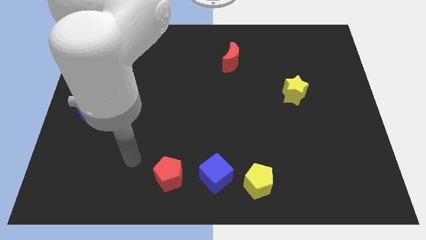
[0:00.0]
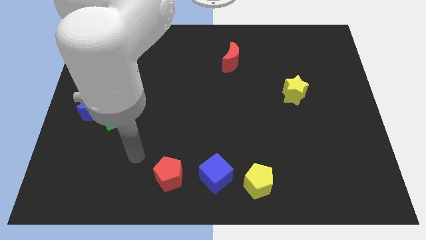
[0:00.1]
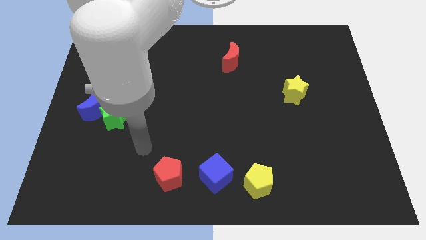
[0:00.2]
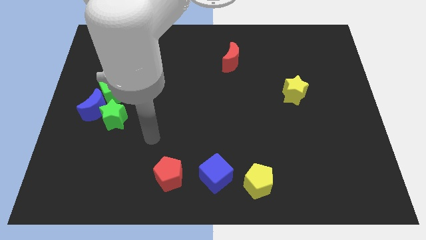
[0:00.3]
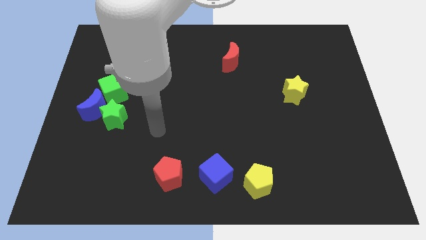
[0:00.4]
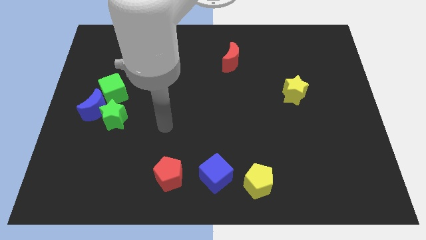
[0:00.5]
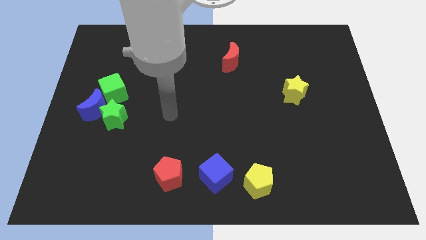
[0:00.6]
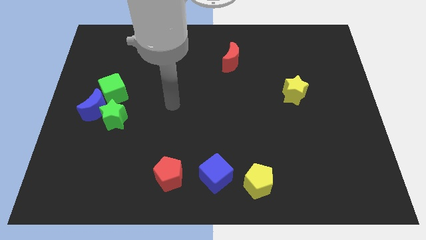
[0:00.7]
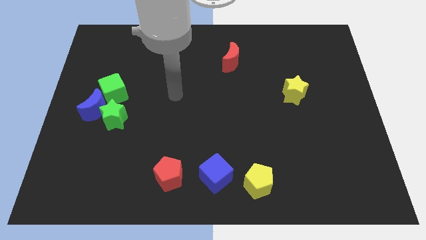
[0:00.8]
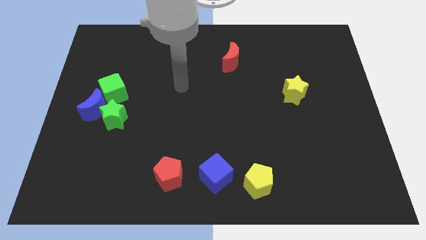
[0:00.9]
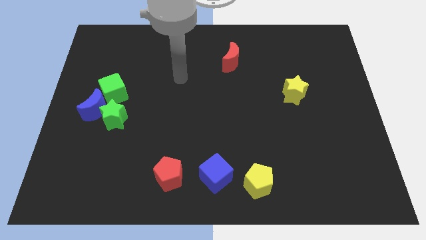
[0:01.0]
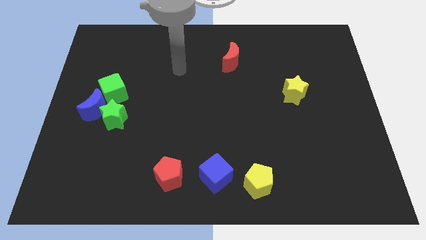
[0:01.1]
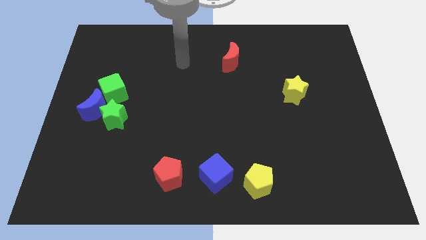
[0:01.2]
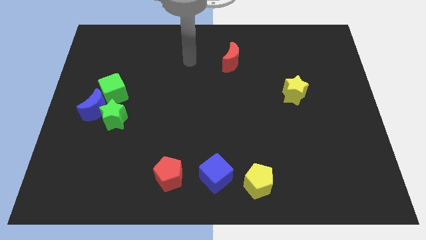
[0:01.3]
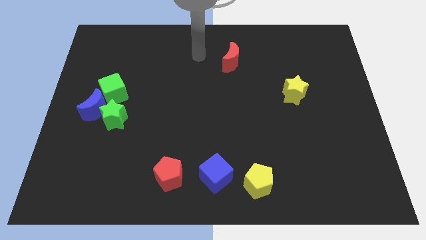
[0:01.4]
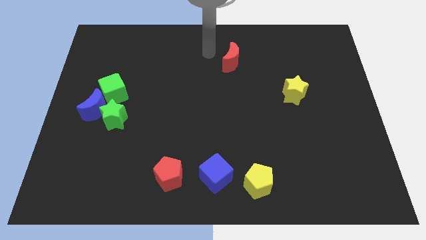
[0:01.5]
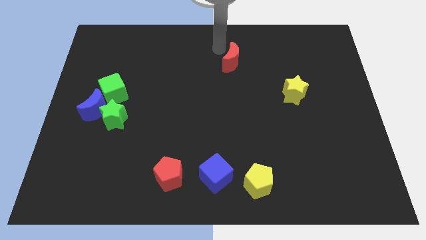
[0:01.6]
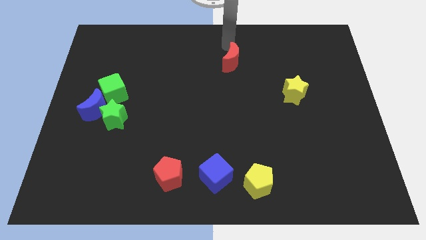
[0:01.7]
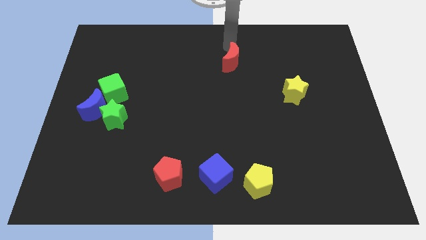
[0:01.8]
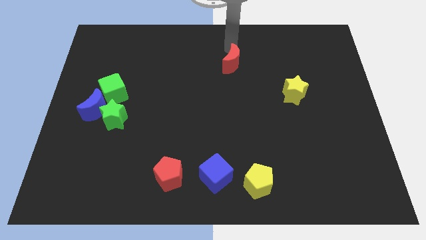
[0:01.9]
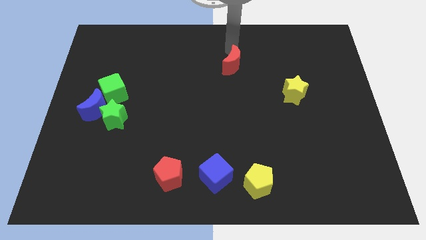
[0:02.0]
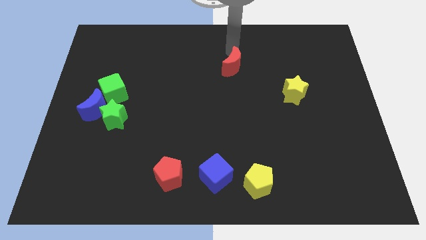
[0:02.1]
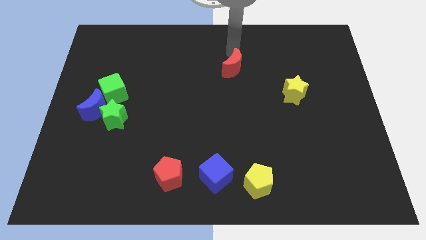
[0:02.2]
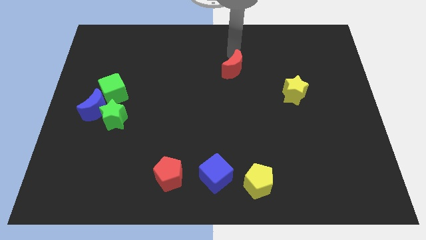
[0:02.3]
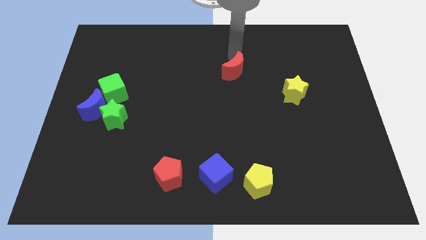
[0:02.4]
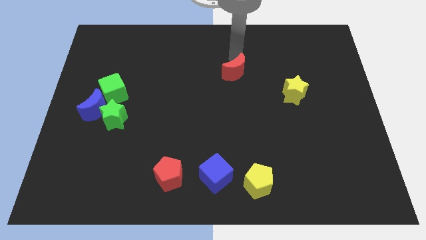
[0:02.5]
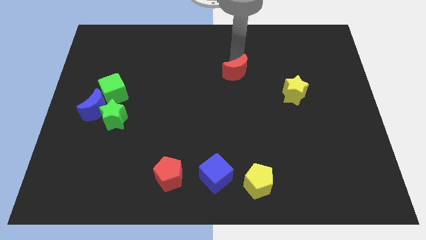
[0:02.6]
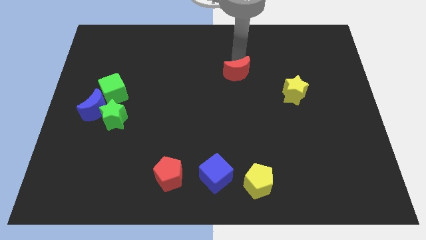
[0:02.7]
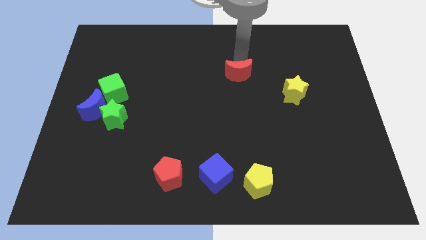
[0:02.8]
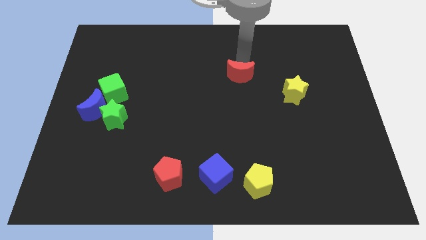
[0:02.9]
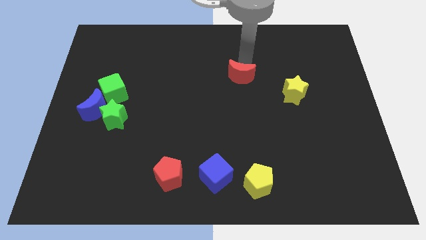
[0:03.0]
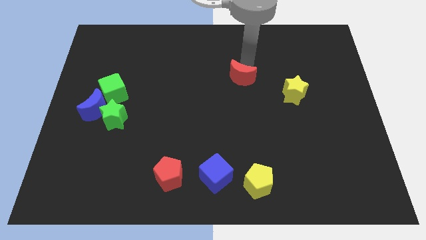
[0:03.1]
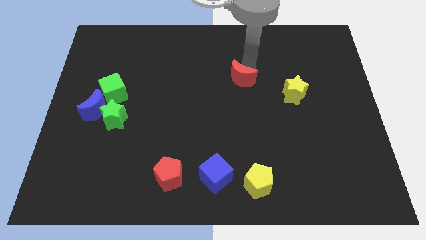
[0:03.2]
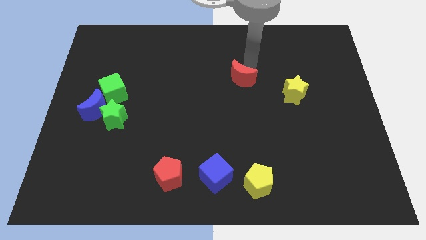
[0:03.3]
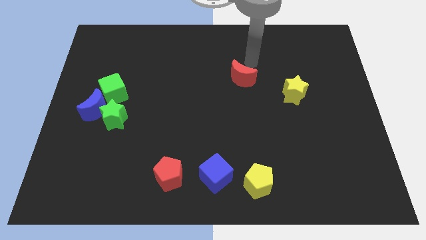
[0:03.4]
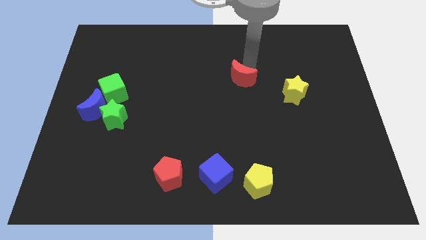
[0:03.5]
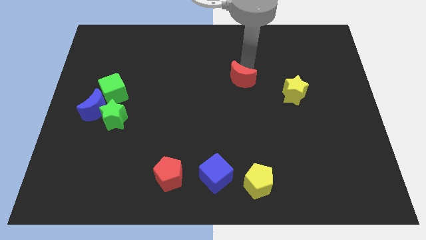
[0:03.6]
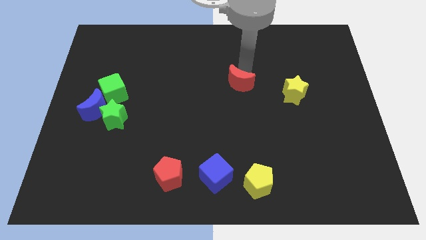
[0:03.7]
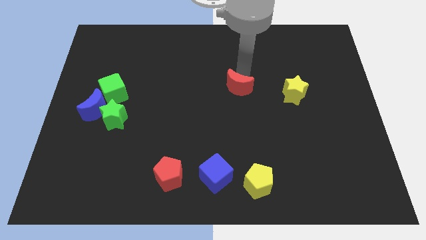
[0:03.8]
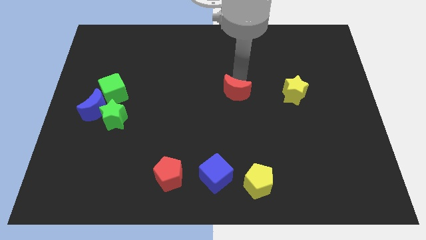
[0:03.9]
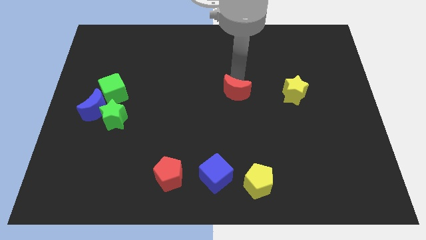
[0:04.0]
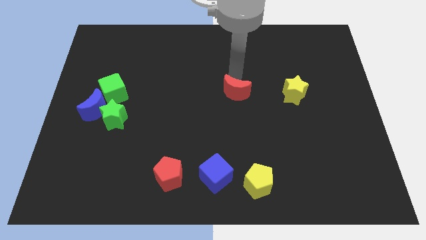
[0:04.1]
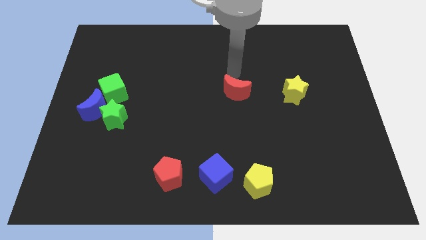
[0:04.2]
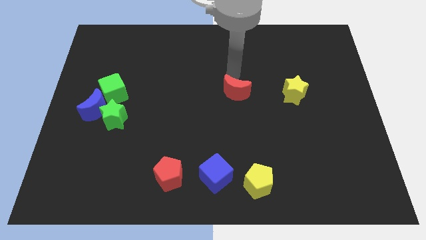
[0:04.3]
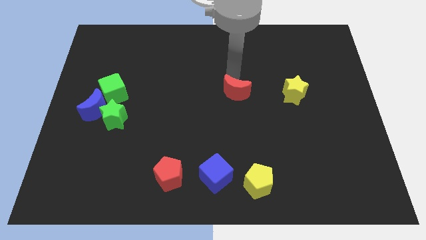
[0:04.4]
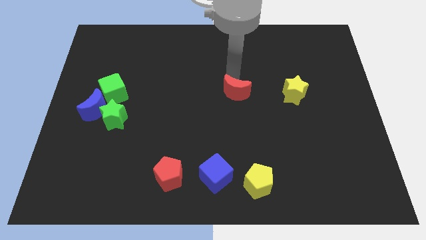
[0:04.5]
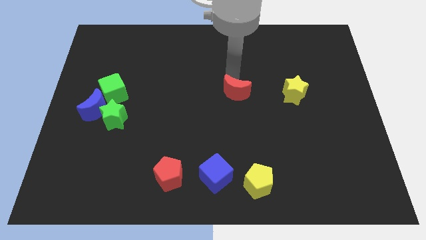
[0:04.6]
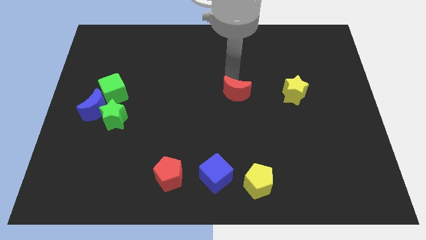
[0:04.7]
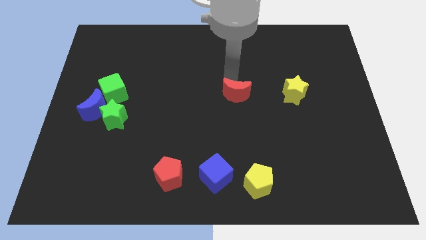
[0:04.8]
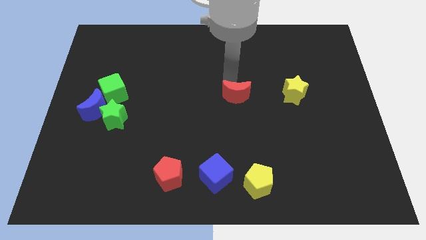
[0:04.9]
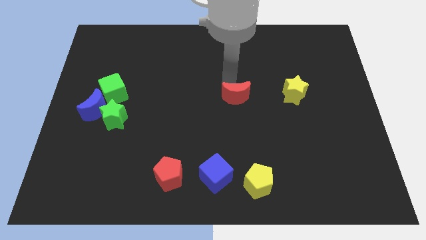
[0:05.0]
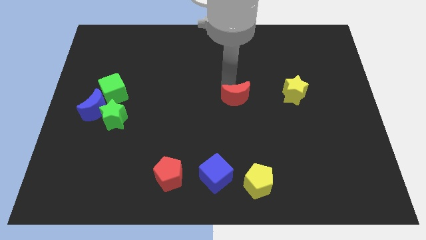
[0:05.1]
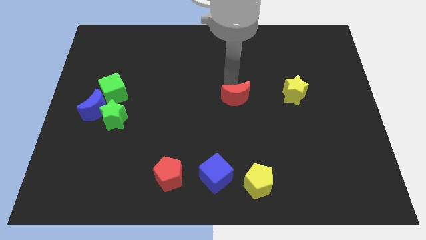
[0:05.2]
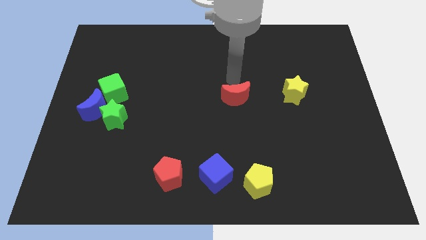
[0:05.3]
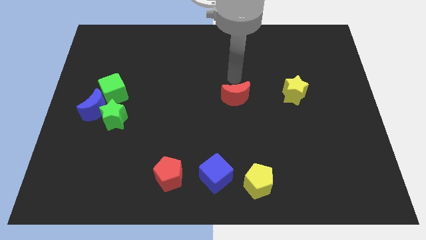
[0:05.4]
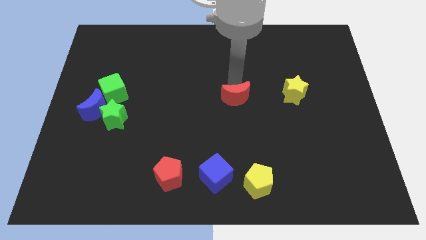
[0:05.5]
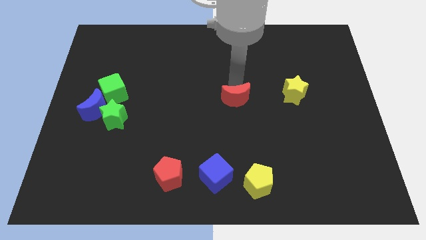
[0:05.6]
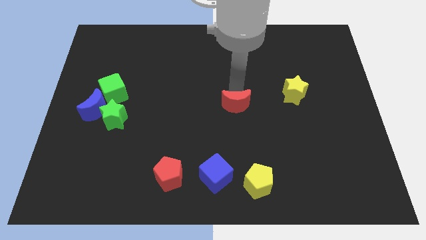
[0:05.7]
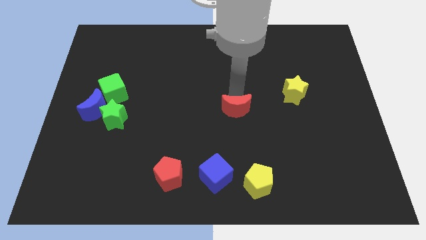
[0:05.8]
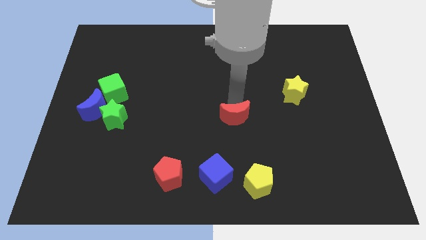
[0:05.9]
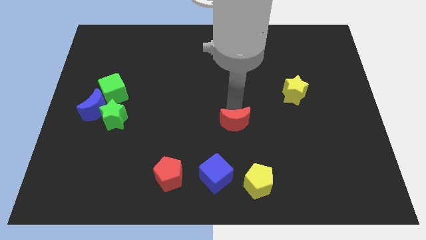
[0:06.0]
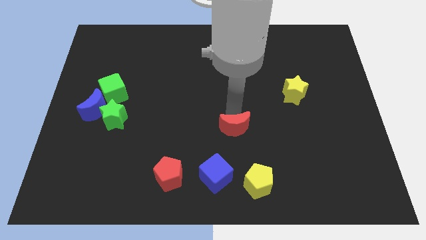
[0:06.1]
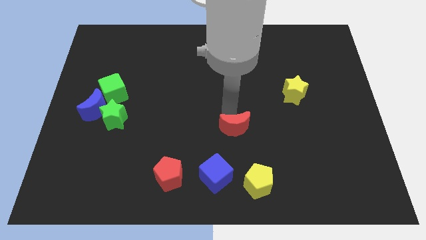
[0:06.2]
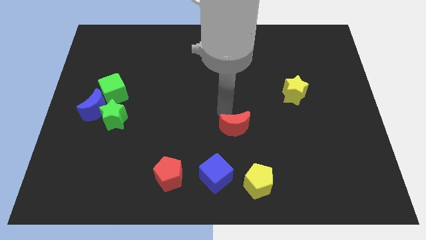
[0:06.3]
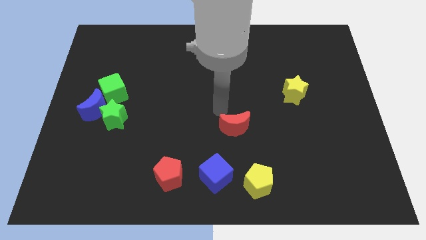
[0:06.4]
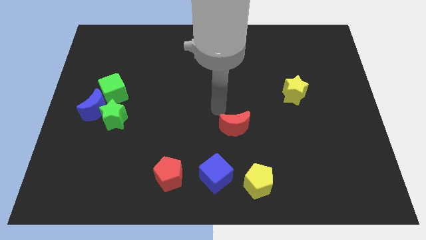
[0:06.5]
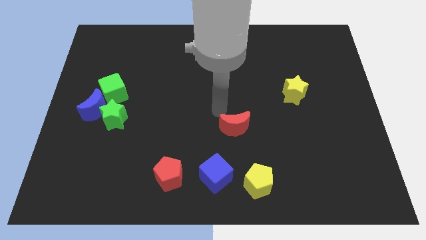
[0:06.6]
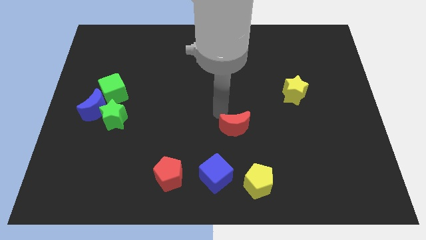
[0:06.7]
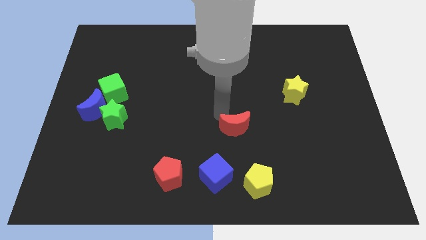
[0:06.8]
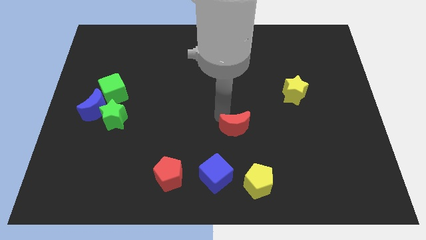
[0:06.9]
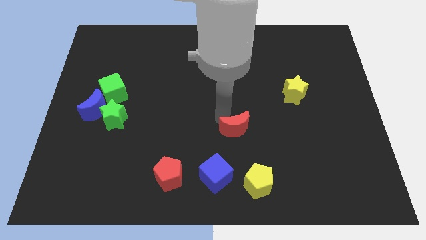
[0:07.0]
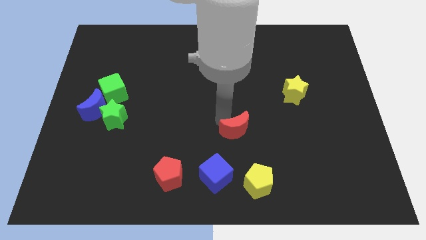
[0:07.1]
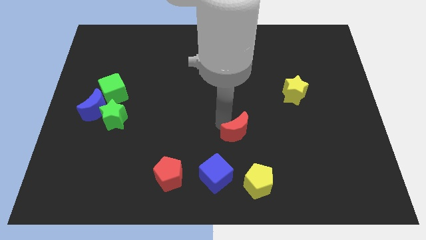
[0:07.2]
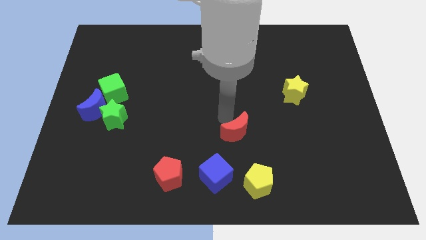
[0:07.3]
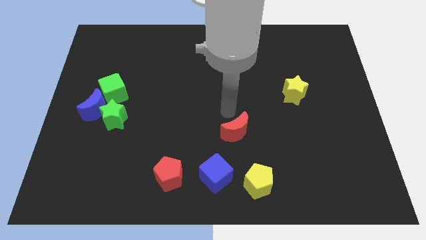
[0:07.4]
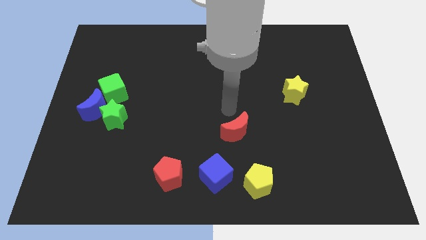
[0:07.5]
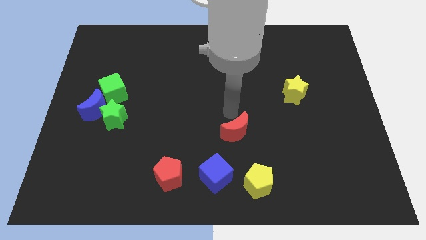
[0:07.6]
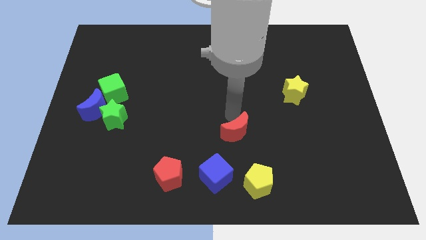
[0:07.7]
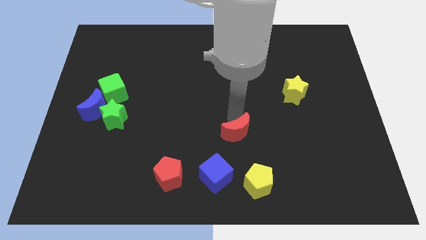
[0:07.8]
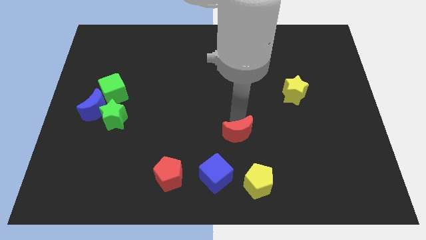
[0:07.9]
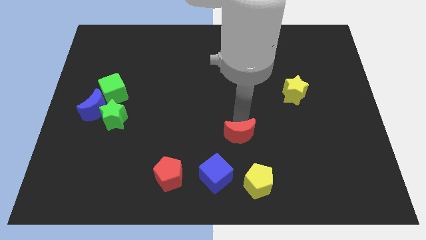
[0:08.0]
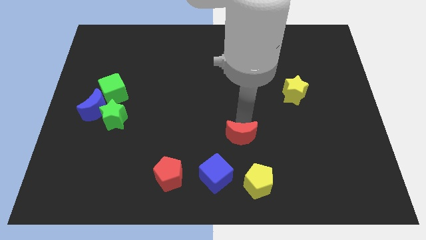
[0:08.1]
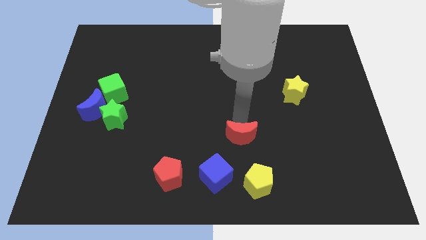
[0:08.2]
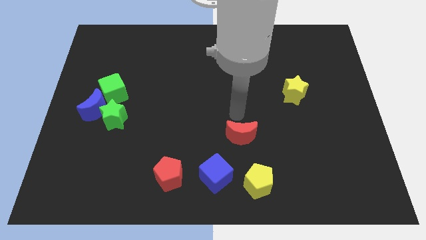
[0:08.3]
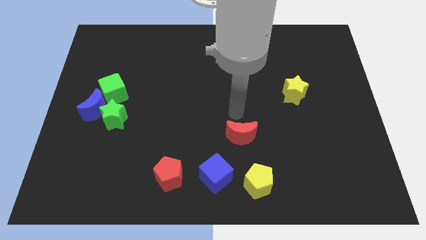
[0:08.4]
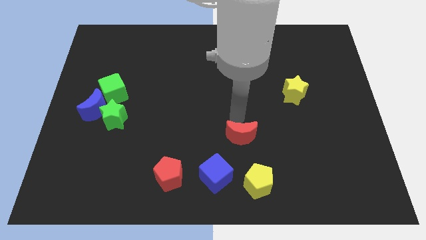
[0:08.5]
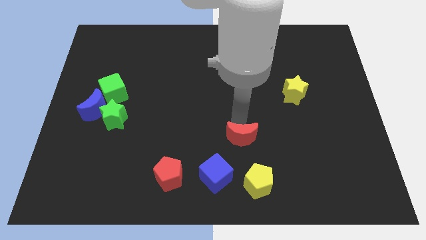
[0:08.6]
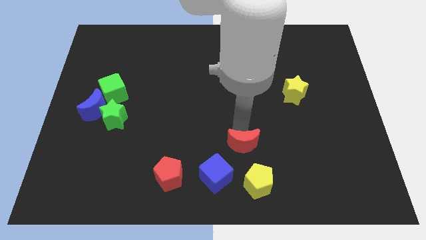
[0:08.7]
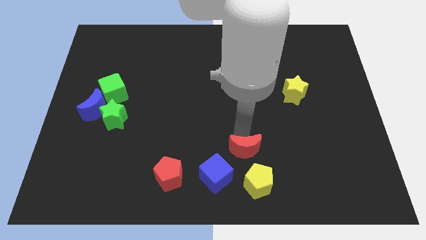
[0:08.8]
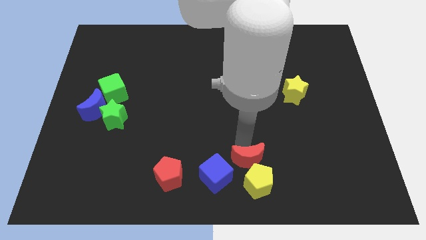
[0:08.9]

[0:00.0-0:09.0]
put the red moon to the yellow pentagon
